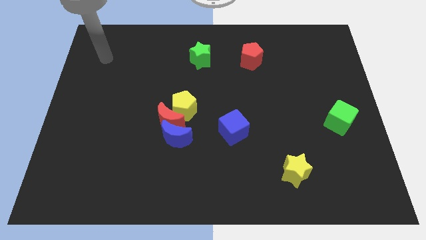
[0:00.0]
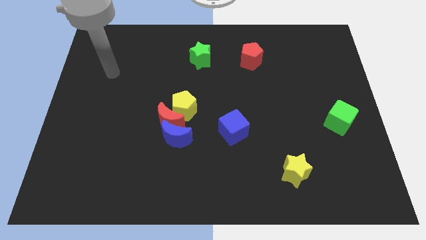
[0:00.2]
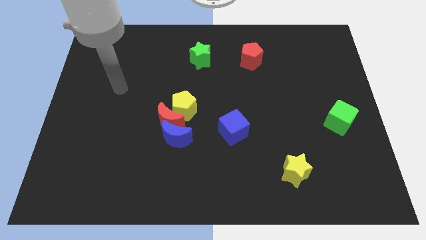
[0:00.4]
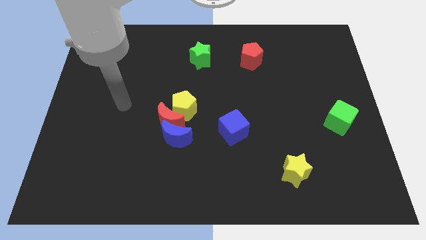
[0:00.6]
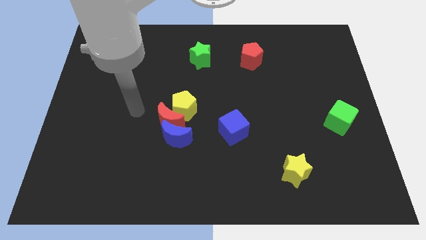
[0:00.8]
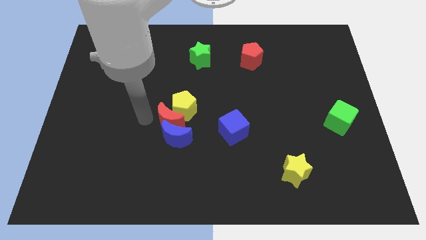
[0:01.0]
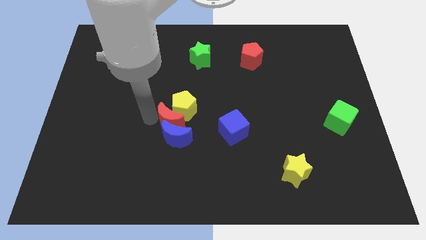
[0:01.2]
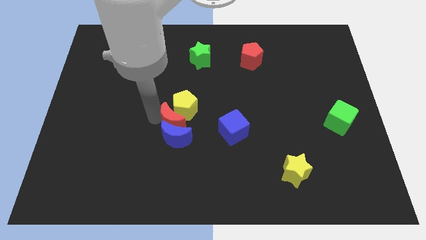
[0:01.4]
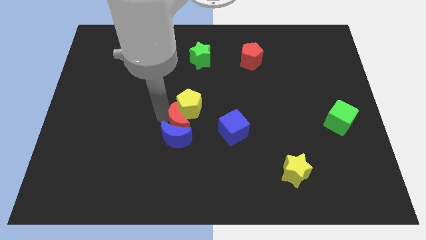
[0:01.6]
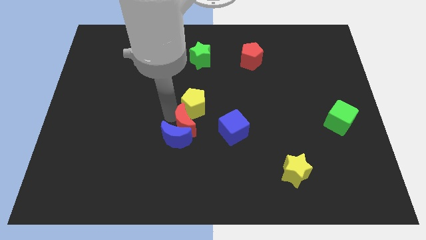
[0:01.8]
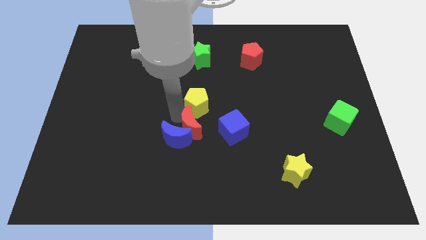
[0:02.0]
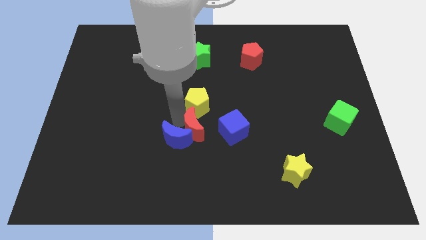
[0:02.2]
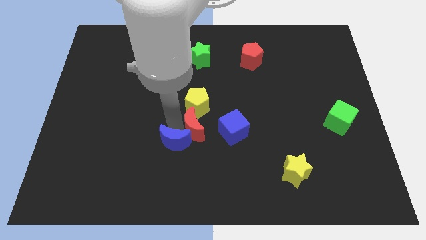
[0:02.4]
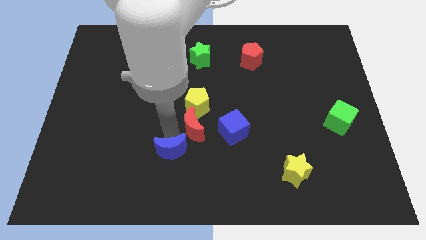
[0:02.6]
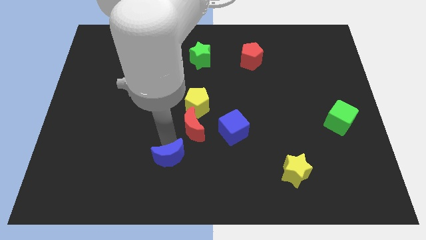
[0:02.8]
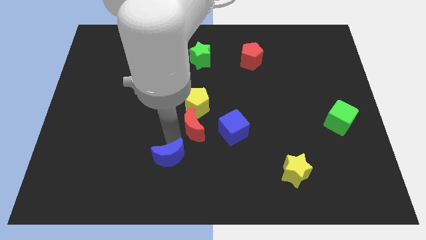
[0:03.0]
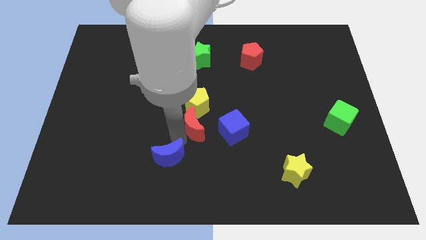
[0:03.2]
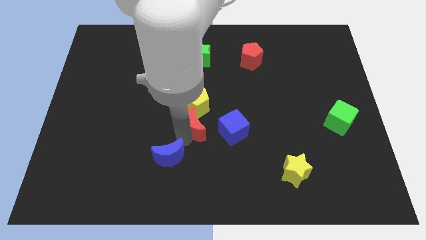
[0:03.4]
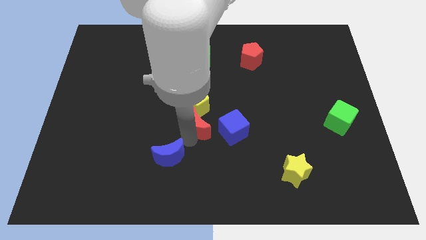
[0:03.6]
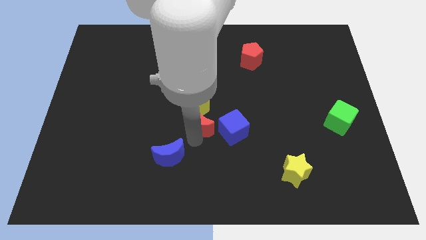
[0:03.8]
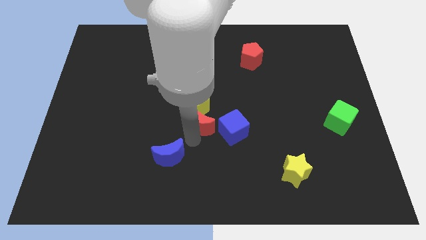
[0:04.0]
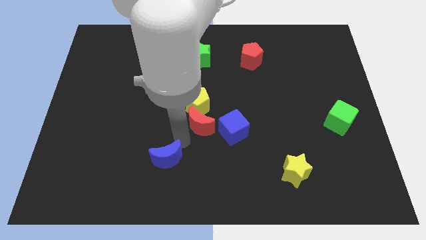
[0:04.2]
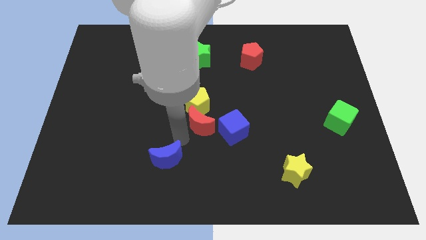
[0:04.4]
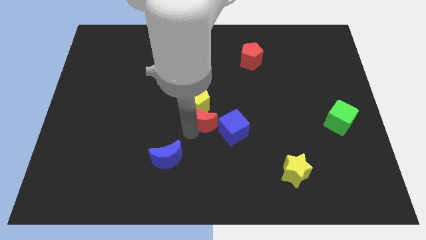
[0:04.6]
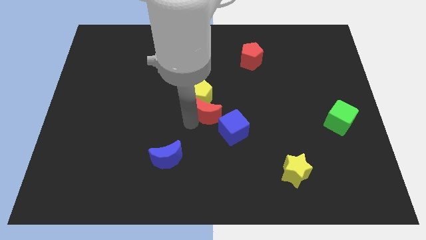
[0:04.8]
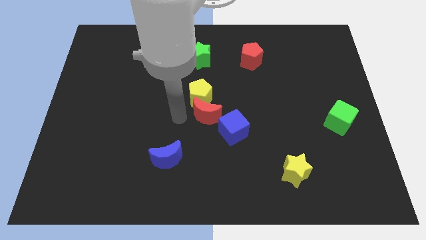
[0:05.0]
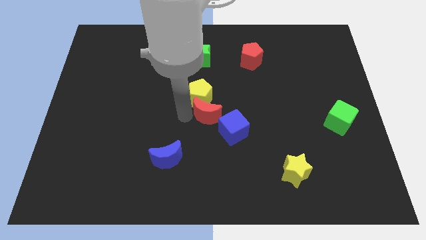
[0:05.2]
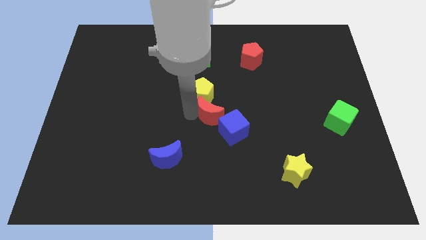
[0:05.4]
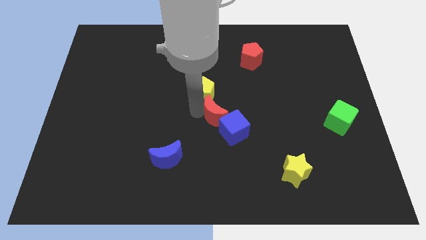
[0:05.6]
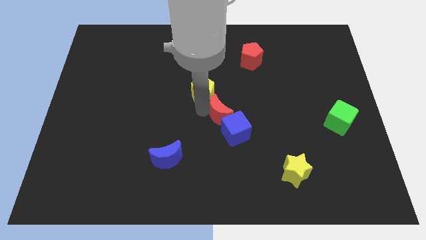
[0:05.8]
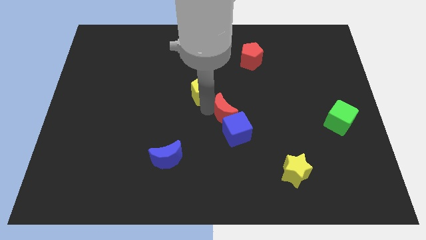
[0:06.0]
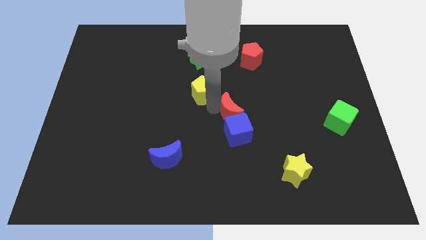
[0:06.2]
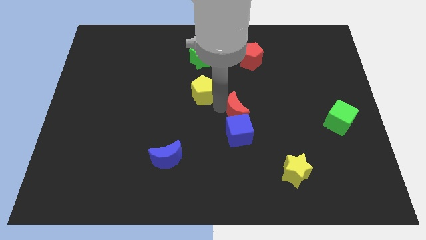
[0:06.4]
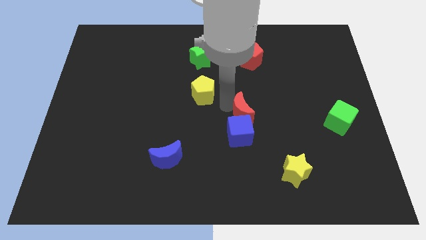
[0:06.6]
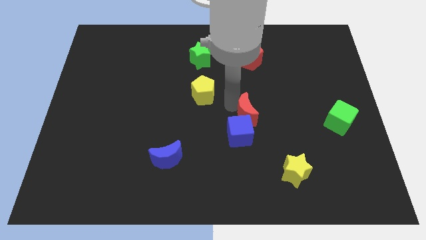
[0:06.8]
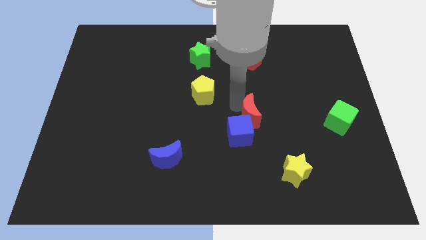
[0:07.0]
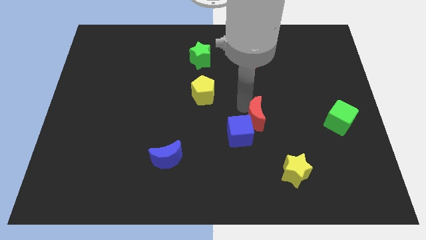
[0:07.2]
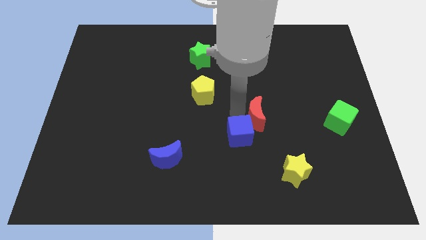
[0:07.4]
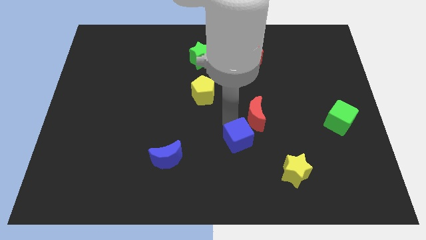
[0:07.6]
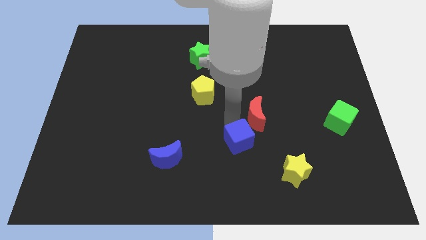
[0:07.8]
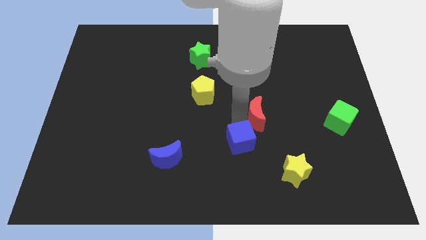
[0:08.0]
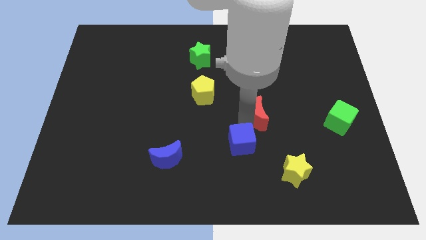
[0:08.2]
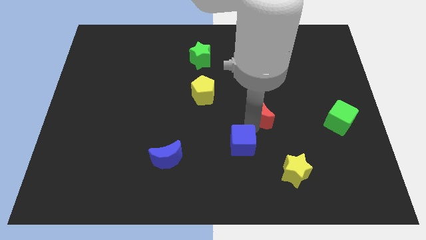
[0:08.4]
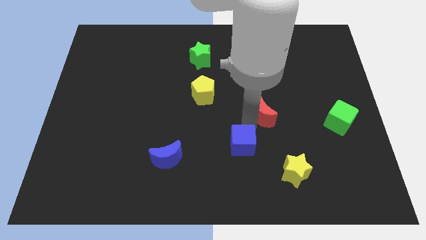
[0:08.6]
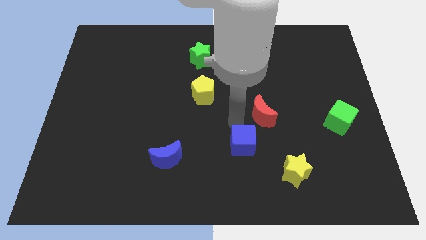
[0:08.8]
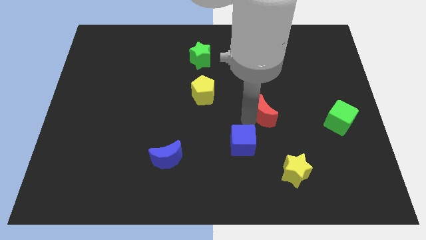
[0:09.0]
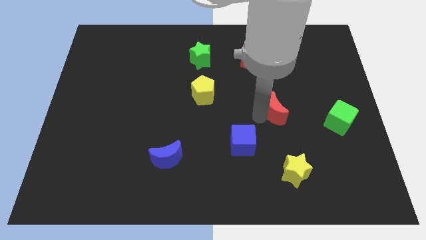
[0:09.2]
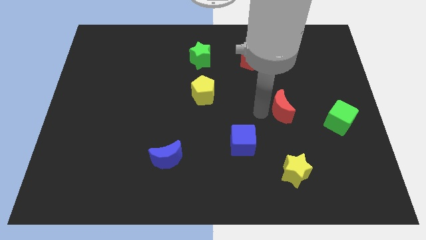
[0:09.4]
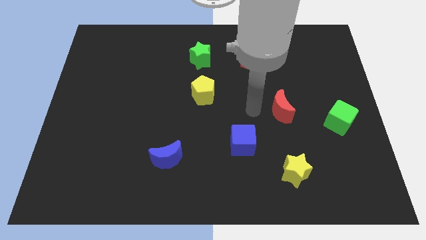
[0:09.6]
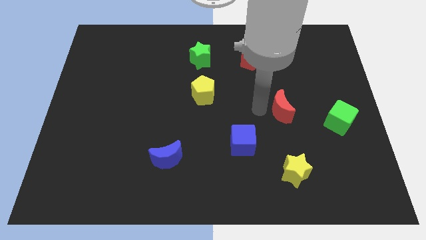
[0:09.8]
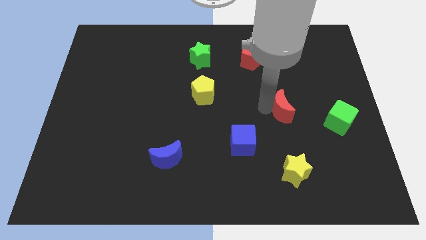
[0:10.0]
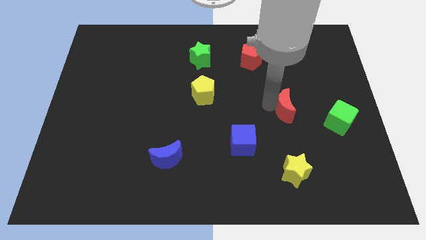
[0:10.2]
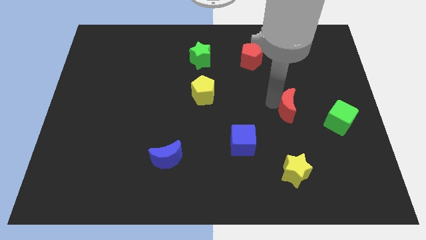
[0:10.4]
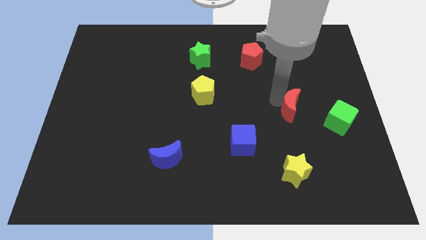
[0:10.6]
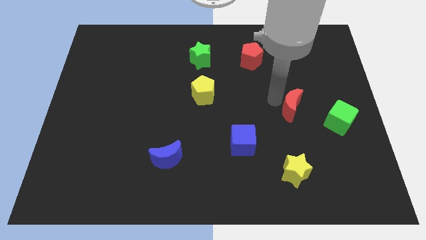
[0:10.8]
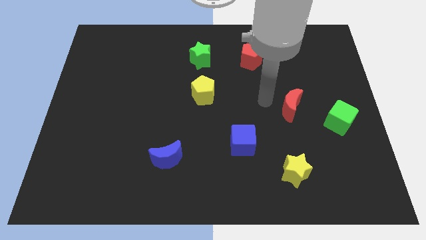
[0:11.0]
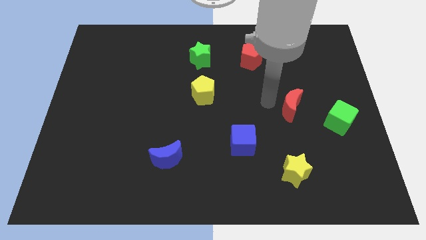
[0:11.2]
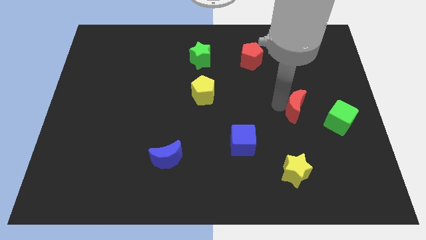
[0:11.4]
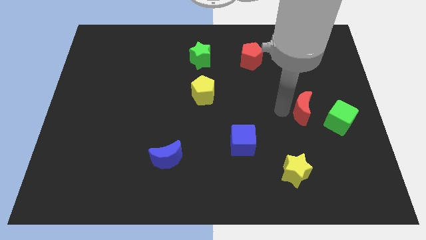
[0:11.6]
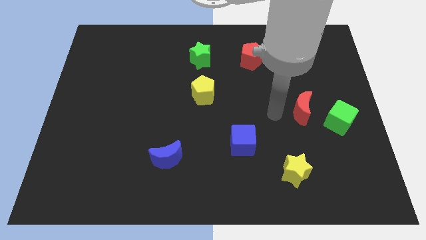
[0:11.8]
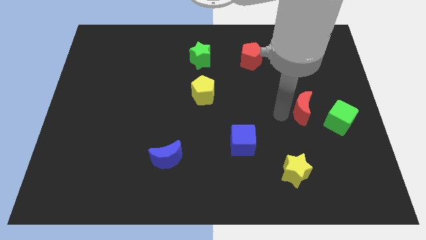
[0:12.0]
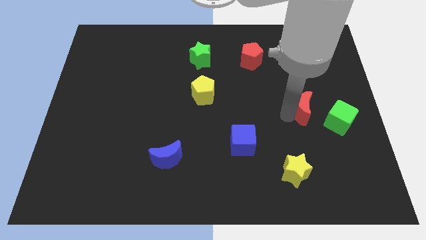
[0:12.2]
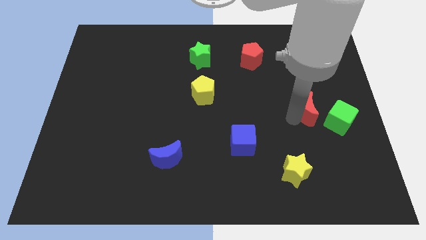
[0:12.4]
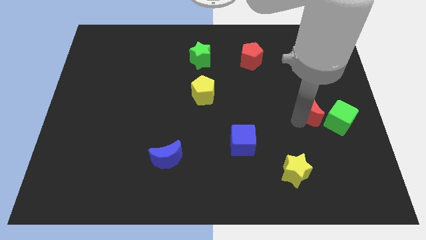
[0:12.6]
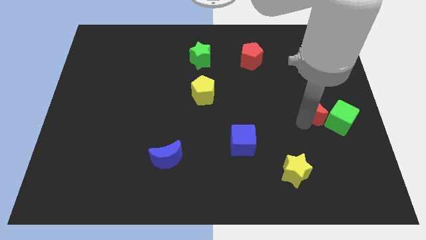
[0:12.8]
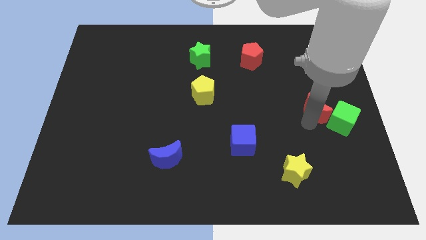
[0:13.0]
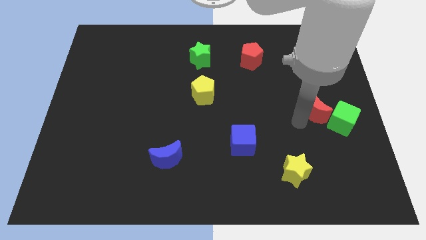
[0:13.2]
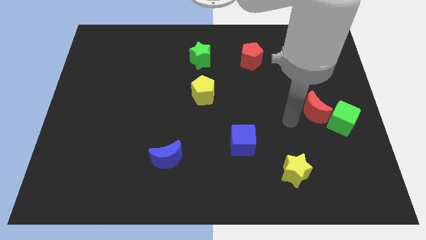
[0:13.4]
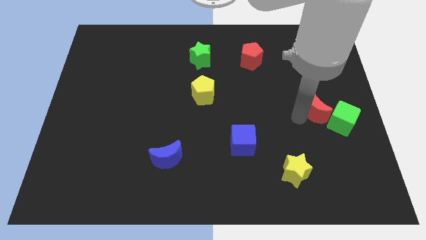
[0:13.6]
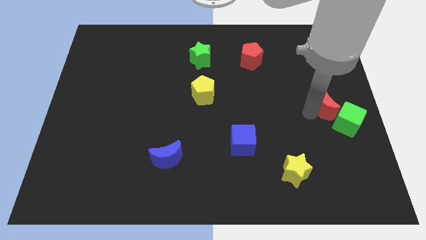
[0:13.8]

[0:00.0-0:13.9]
push the red moon to the right side
